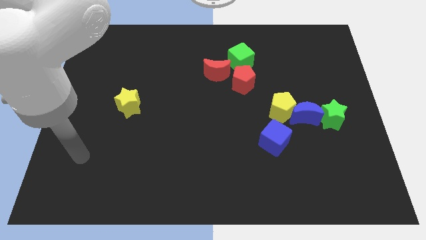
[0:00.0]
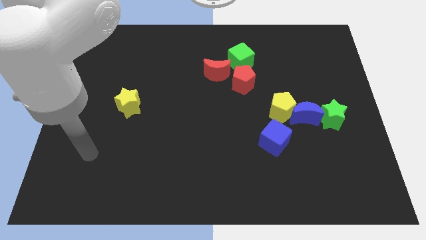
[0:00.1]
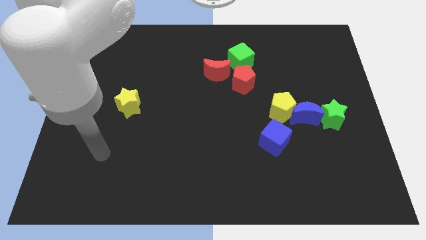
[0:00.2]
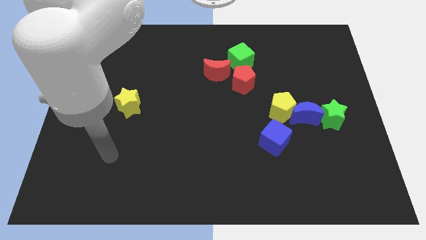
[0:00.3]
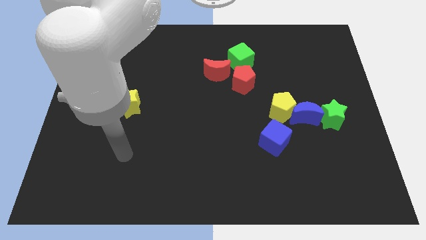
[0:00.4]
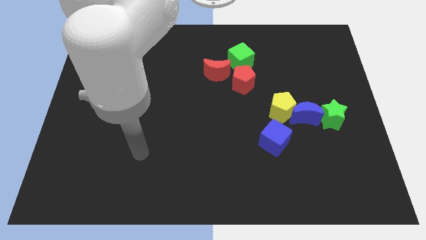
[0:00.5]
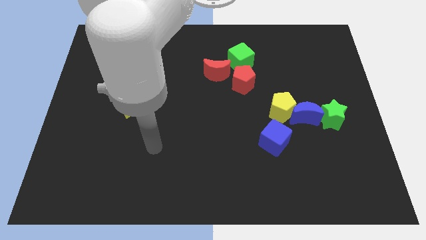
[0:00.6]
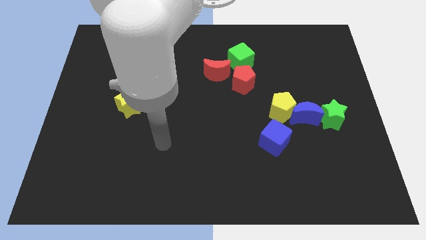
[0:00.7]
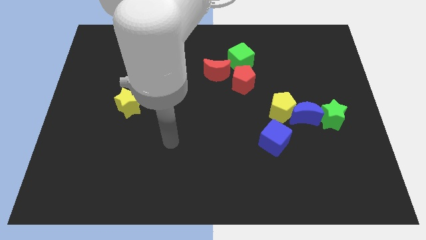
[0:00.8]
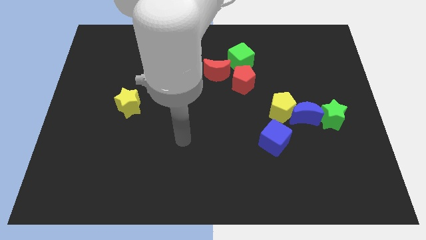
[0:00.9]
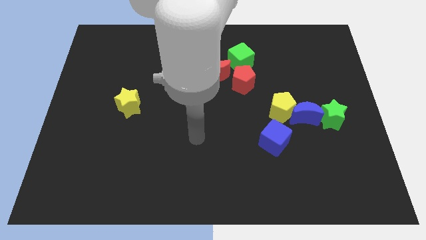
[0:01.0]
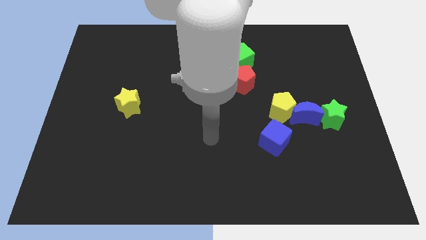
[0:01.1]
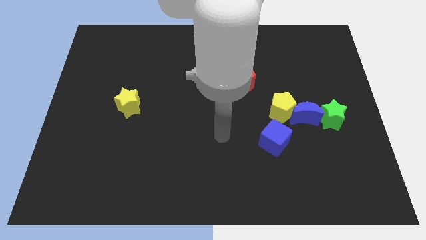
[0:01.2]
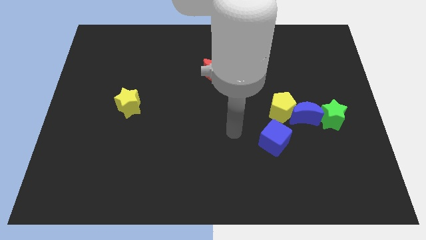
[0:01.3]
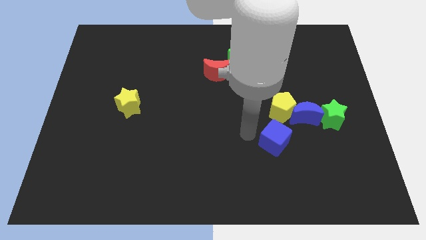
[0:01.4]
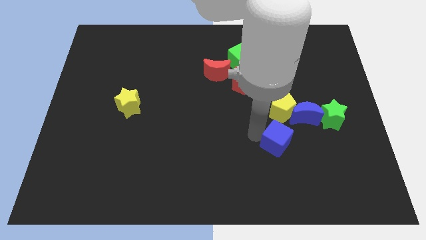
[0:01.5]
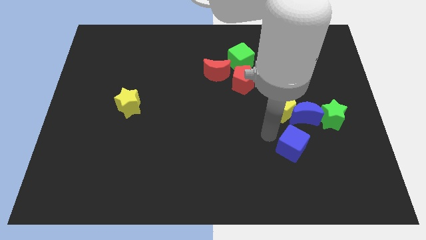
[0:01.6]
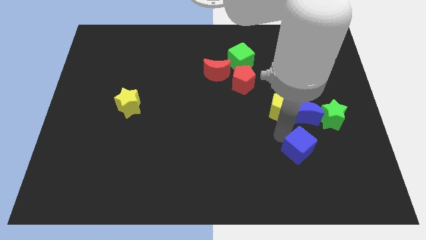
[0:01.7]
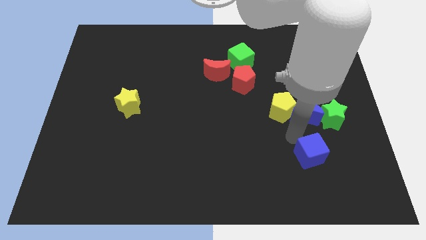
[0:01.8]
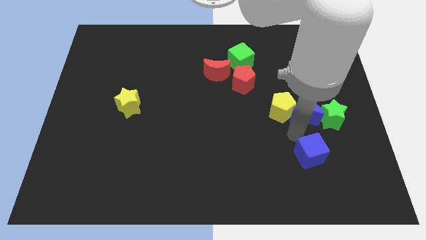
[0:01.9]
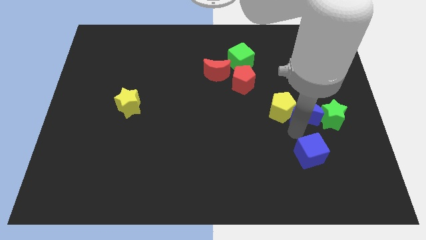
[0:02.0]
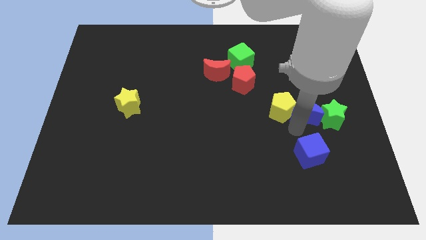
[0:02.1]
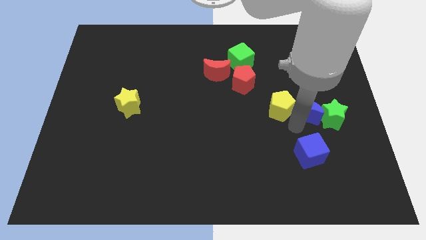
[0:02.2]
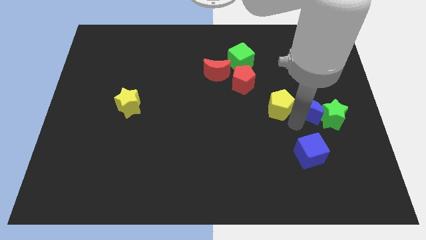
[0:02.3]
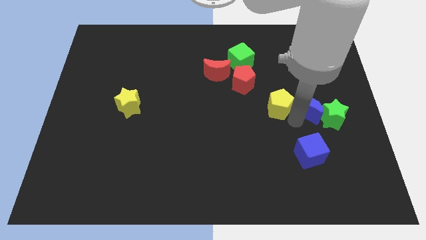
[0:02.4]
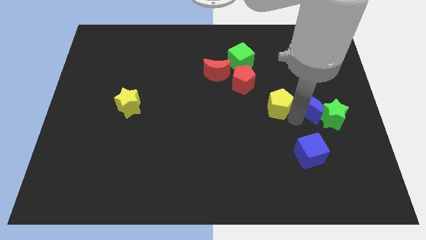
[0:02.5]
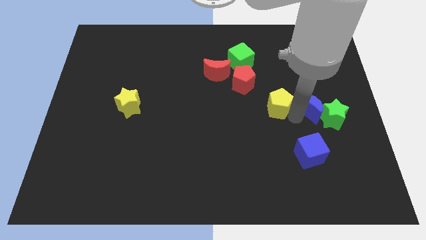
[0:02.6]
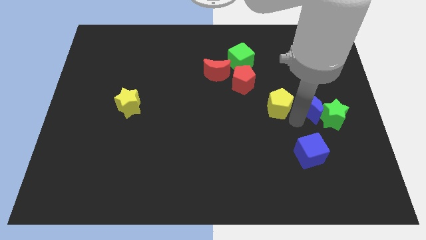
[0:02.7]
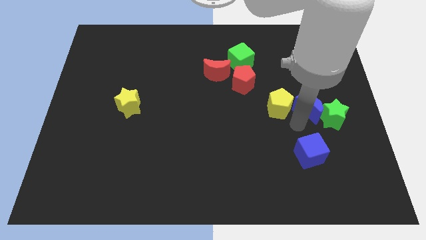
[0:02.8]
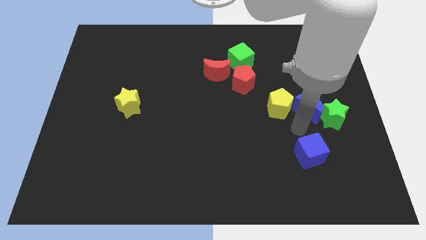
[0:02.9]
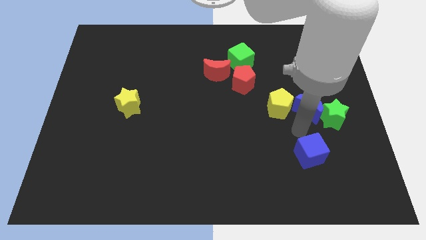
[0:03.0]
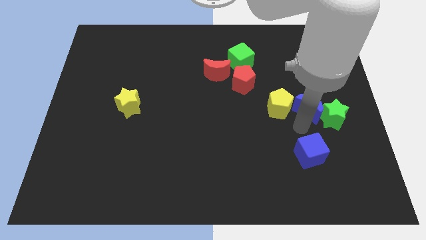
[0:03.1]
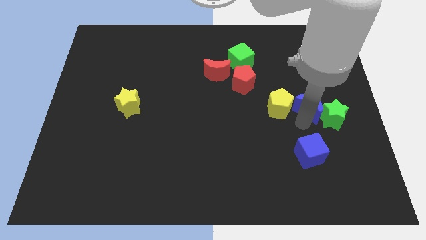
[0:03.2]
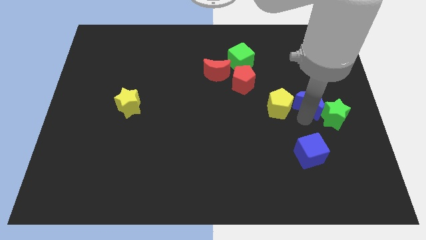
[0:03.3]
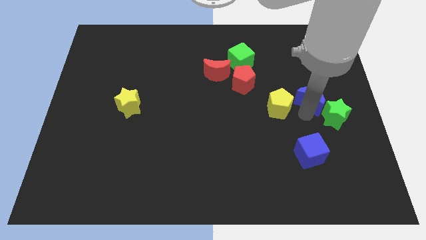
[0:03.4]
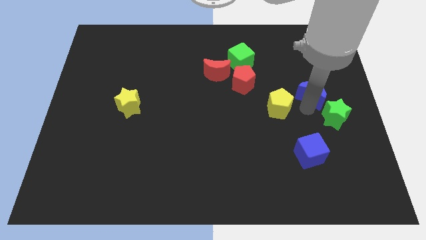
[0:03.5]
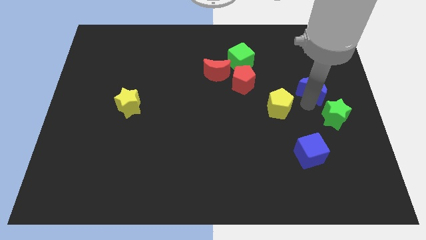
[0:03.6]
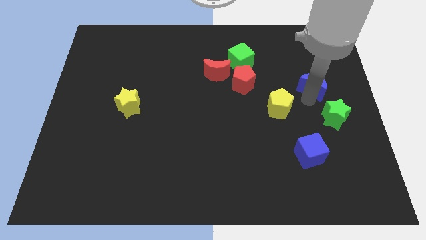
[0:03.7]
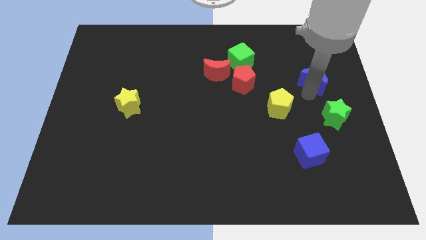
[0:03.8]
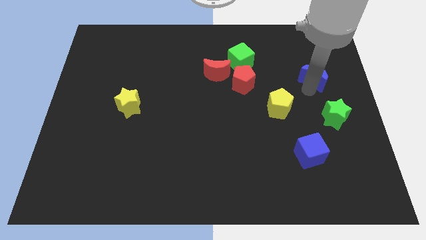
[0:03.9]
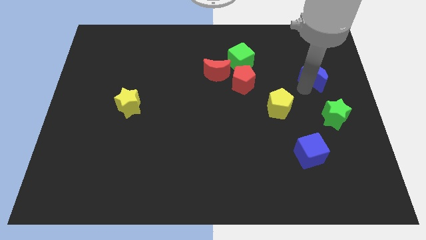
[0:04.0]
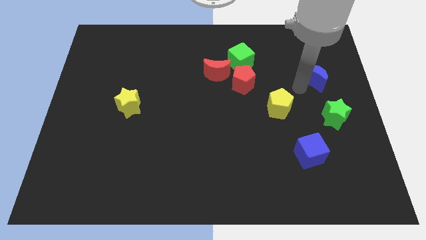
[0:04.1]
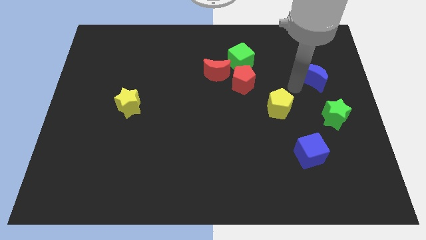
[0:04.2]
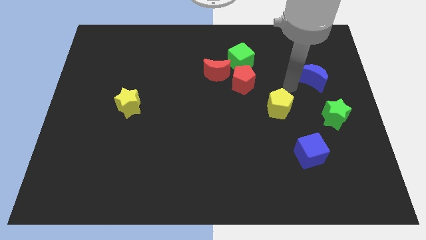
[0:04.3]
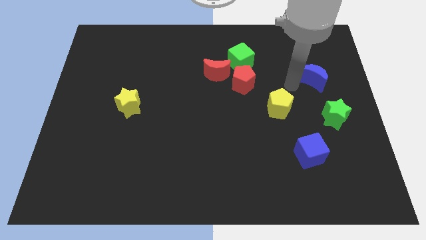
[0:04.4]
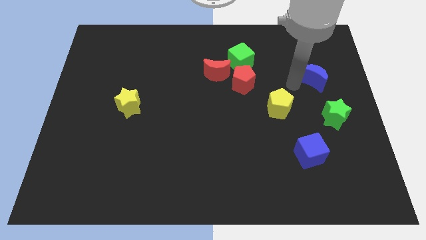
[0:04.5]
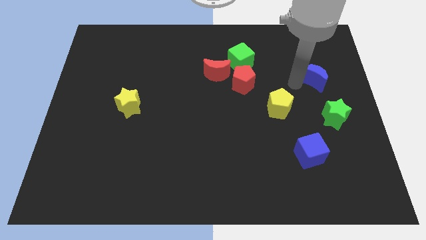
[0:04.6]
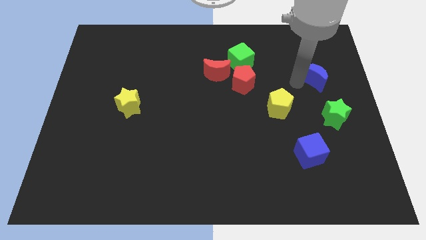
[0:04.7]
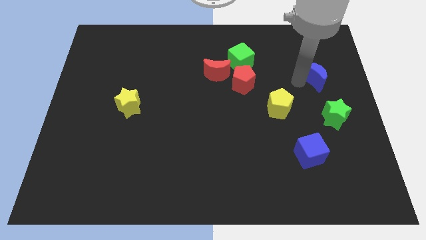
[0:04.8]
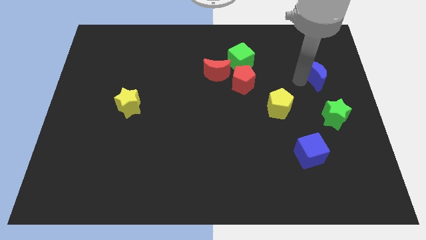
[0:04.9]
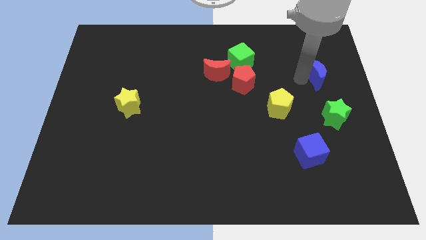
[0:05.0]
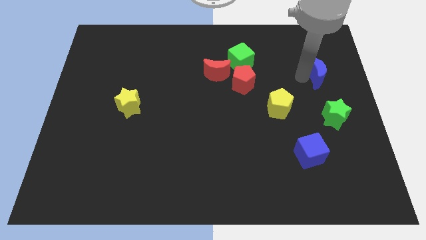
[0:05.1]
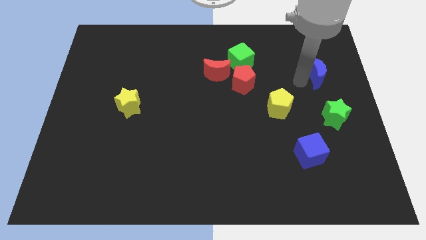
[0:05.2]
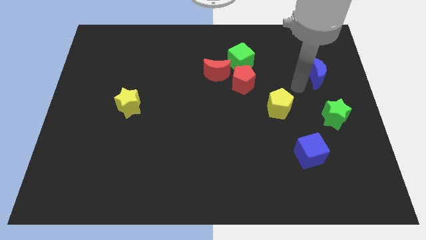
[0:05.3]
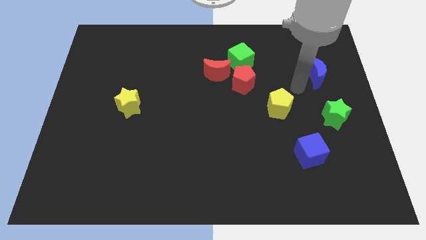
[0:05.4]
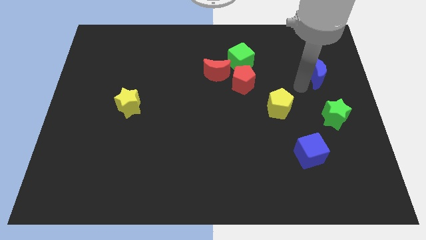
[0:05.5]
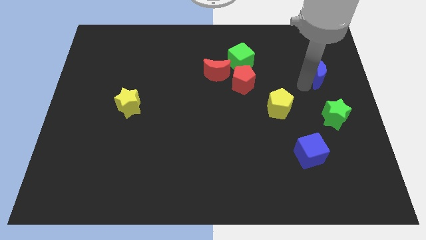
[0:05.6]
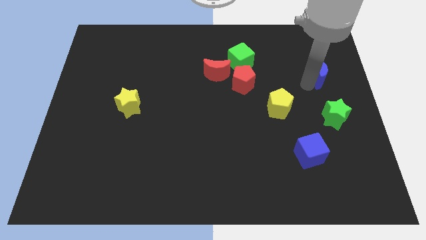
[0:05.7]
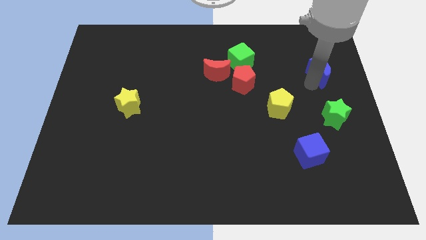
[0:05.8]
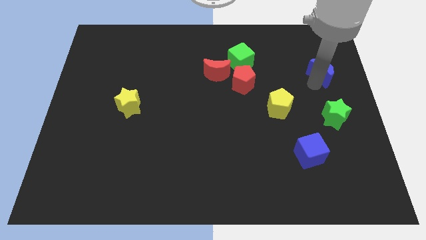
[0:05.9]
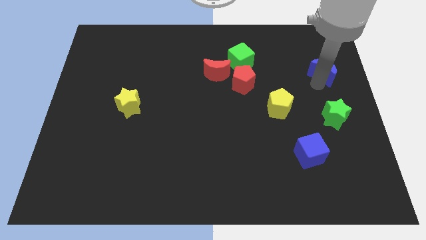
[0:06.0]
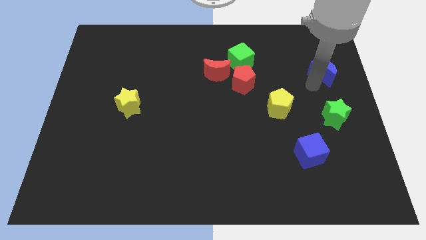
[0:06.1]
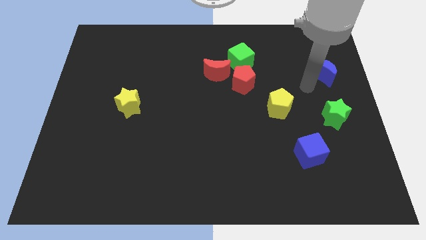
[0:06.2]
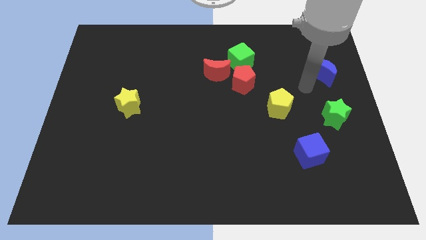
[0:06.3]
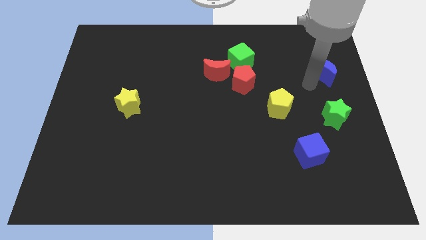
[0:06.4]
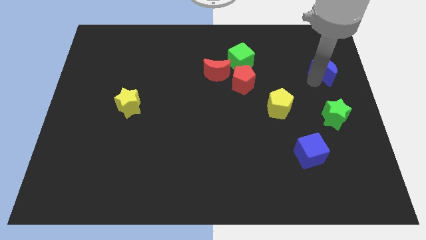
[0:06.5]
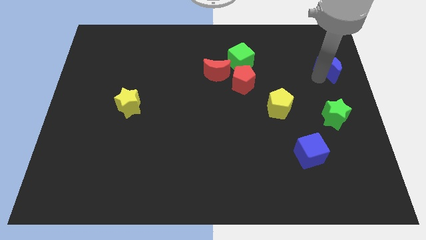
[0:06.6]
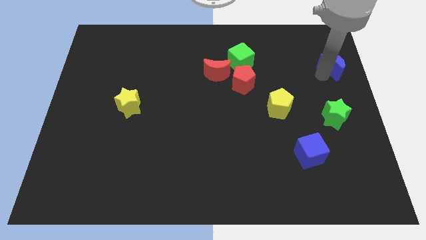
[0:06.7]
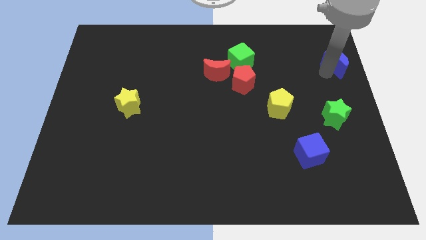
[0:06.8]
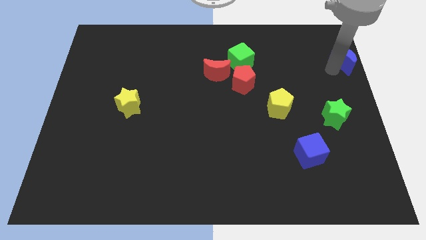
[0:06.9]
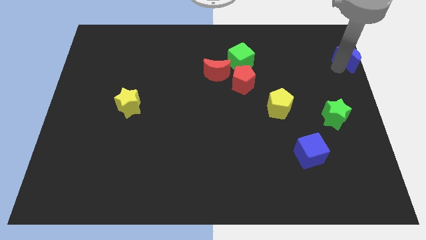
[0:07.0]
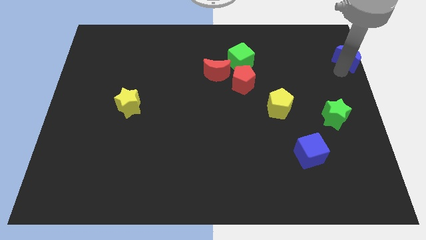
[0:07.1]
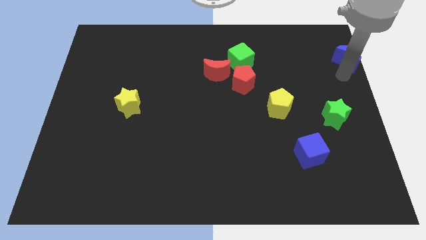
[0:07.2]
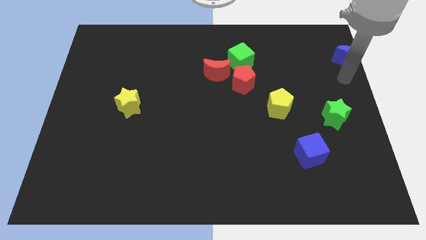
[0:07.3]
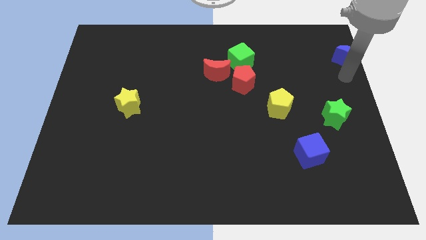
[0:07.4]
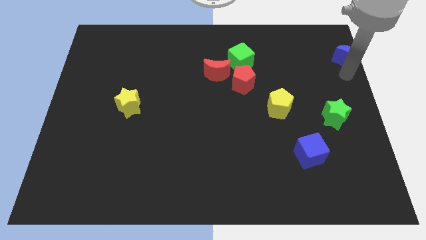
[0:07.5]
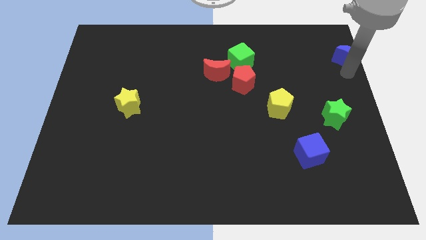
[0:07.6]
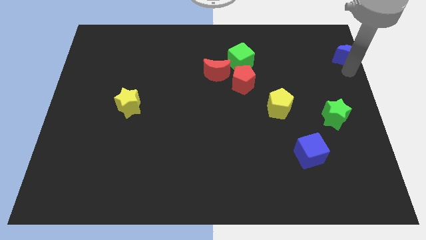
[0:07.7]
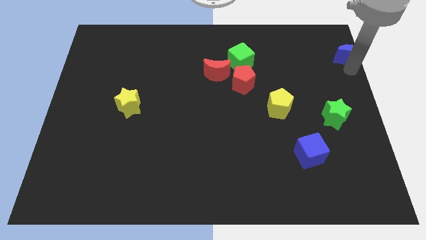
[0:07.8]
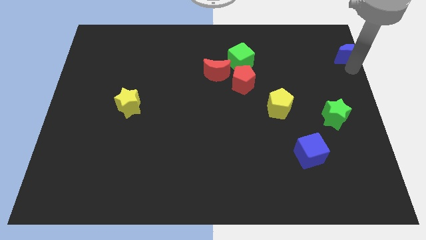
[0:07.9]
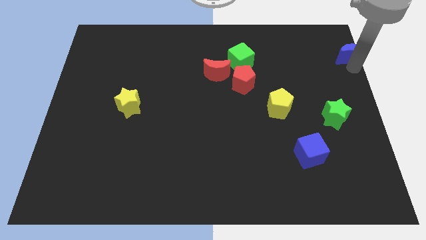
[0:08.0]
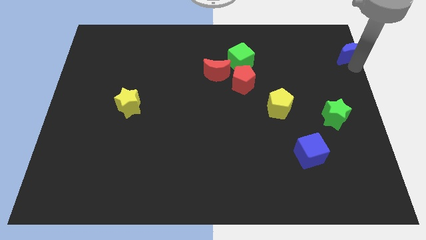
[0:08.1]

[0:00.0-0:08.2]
slide the blue moon to the top right corner

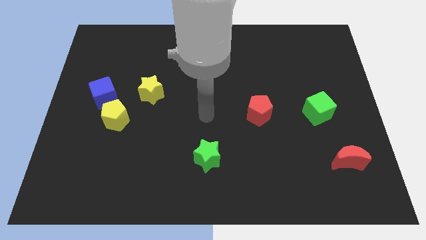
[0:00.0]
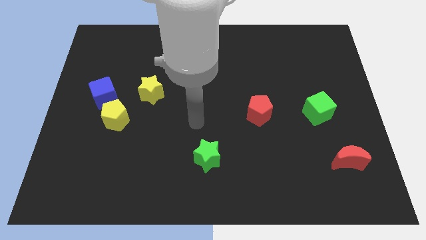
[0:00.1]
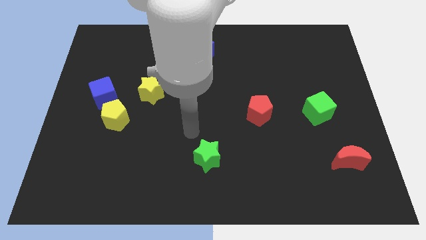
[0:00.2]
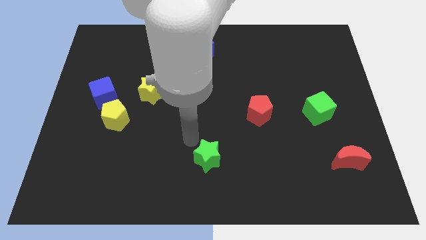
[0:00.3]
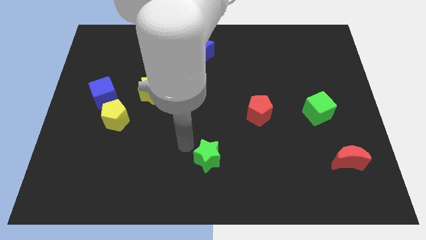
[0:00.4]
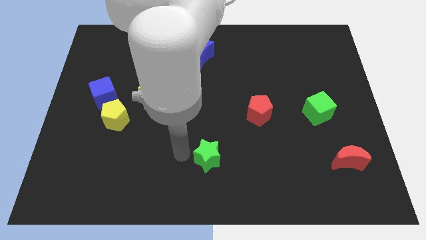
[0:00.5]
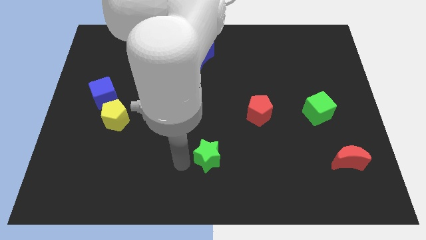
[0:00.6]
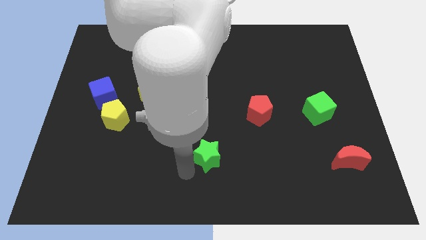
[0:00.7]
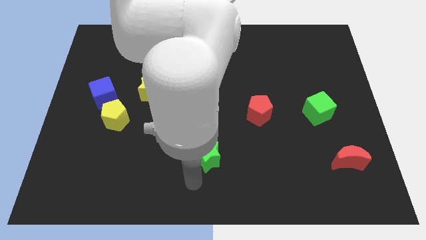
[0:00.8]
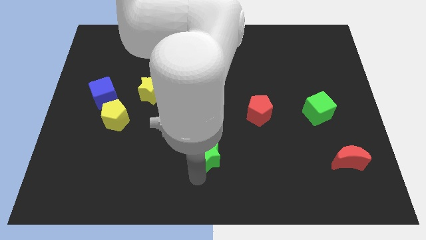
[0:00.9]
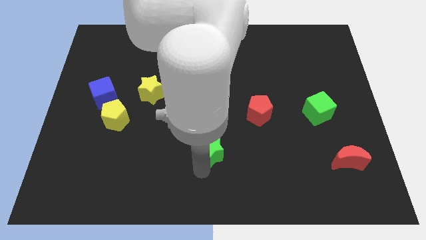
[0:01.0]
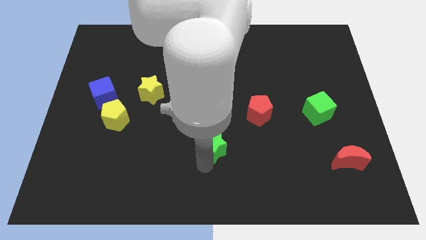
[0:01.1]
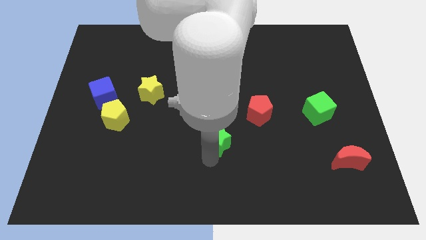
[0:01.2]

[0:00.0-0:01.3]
push the green star to the center
